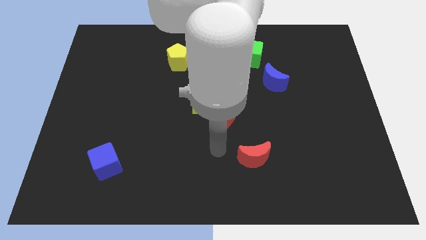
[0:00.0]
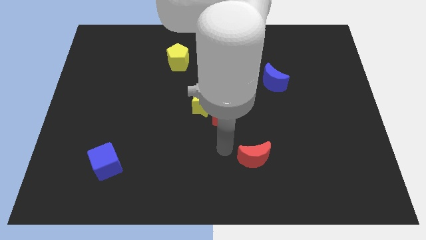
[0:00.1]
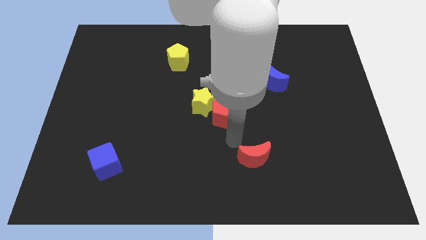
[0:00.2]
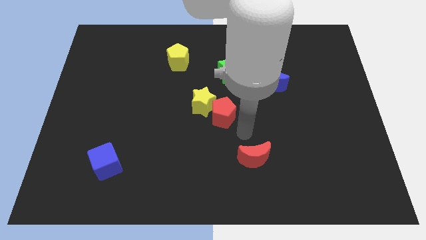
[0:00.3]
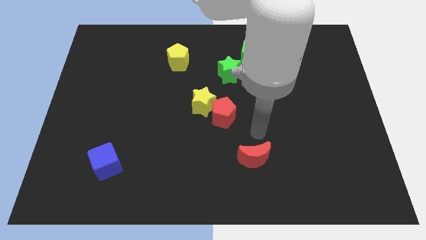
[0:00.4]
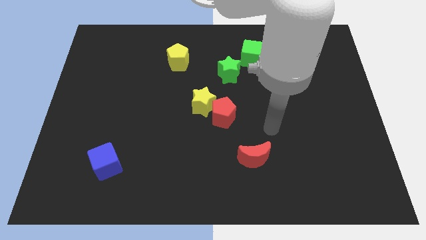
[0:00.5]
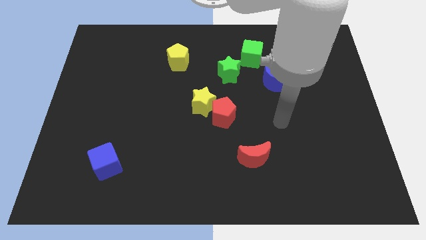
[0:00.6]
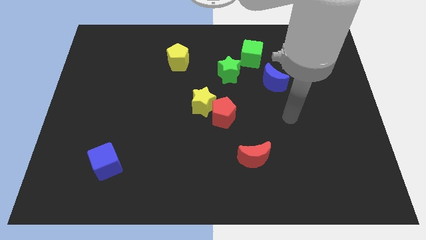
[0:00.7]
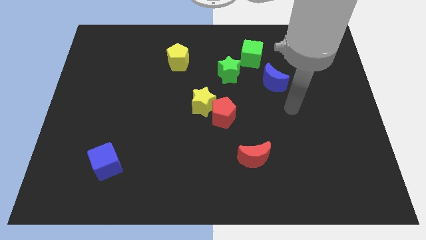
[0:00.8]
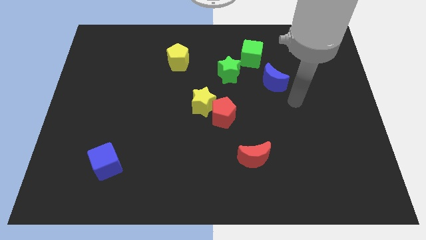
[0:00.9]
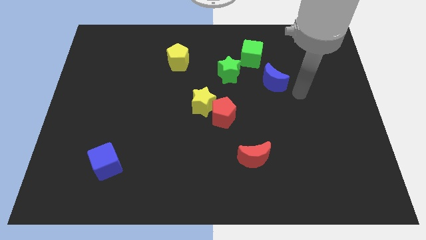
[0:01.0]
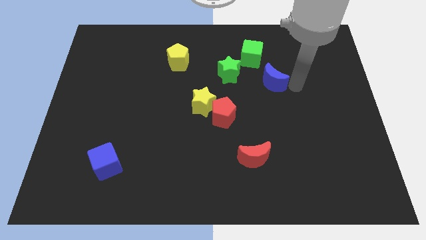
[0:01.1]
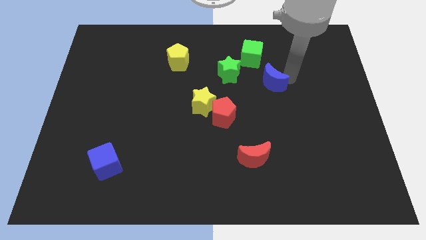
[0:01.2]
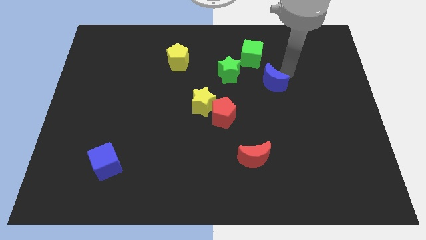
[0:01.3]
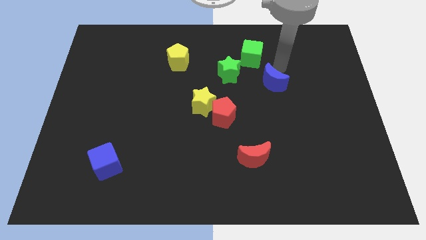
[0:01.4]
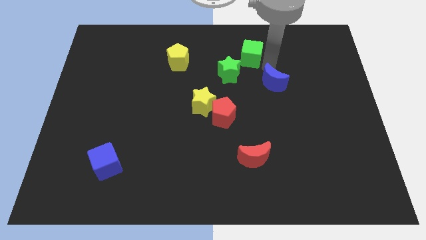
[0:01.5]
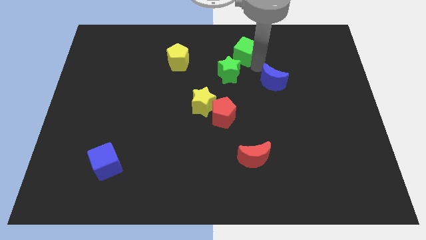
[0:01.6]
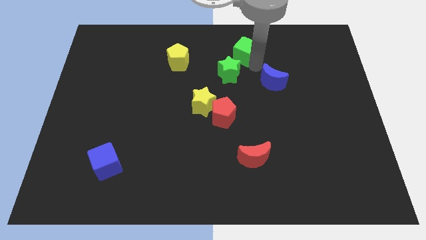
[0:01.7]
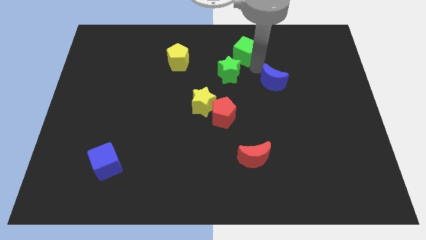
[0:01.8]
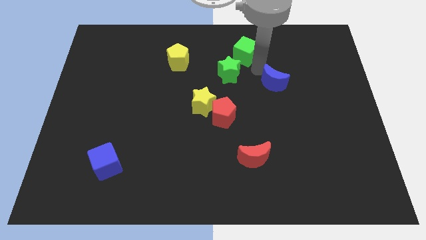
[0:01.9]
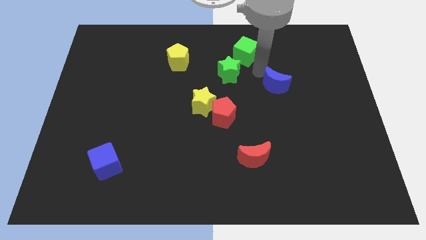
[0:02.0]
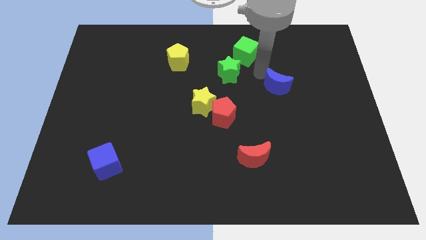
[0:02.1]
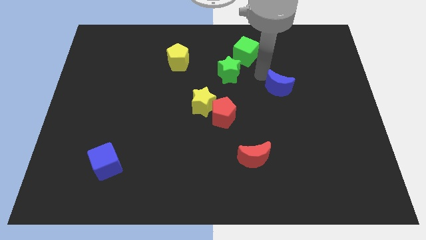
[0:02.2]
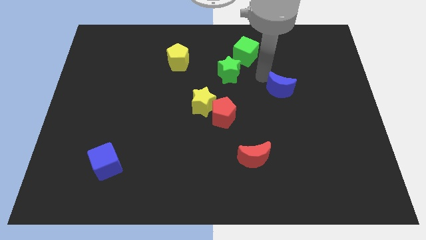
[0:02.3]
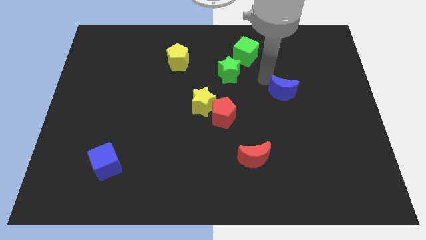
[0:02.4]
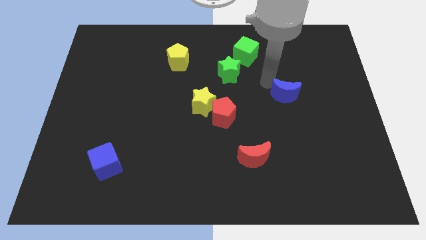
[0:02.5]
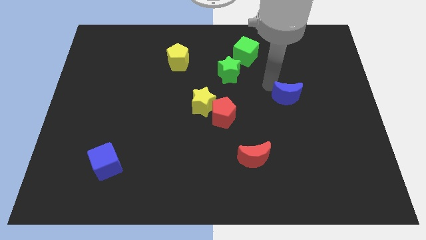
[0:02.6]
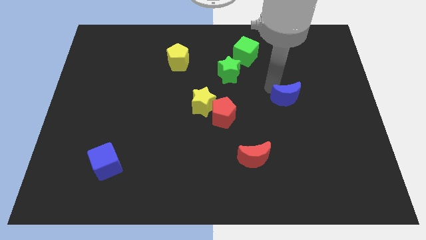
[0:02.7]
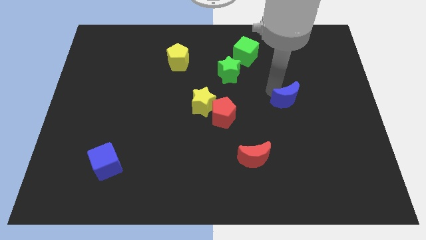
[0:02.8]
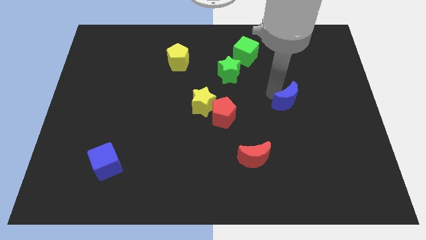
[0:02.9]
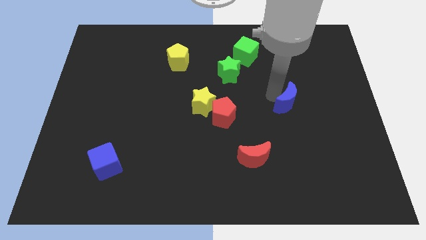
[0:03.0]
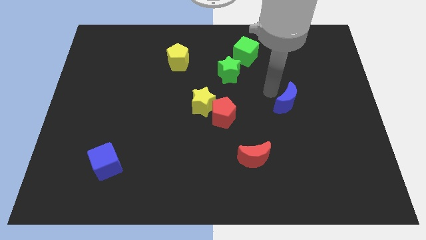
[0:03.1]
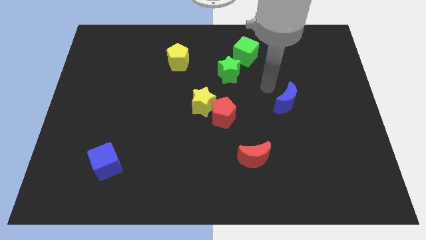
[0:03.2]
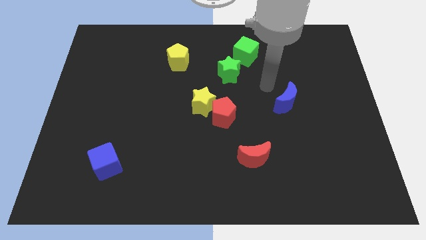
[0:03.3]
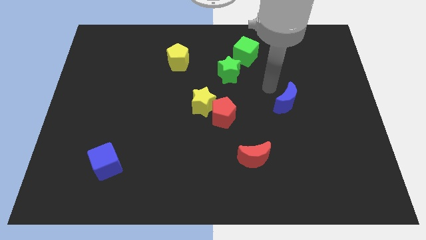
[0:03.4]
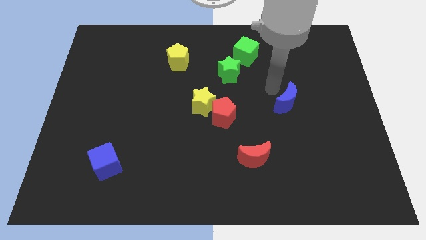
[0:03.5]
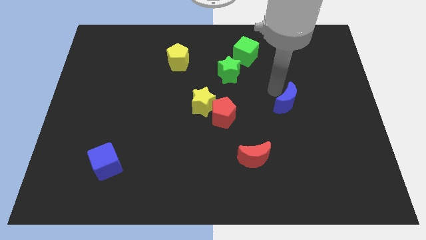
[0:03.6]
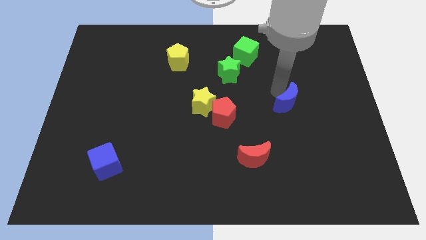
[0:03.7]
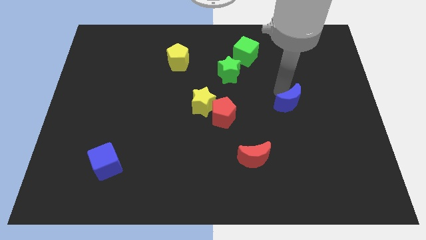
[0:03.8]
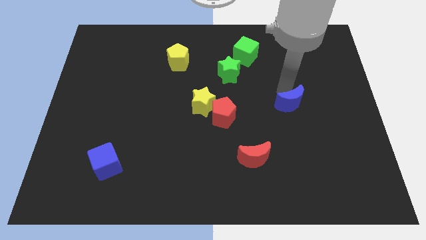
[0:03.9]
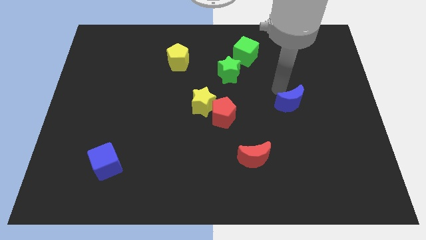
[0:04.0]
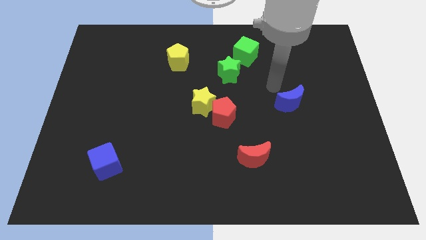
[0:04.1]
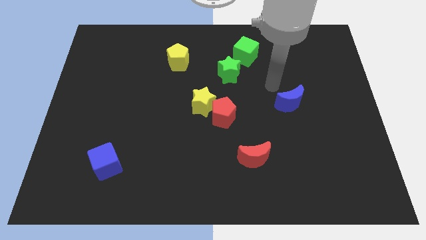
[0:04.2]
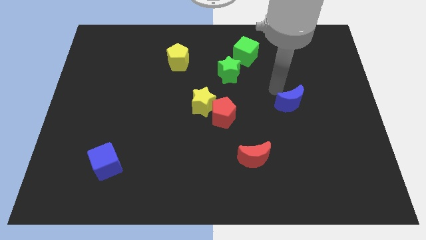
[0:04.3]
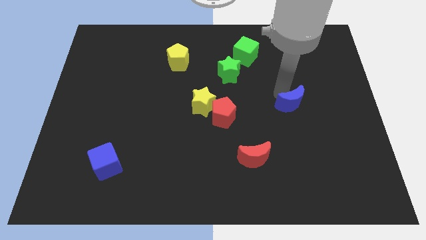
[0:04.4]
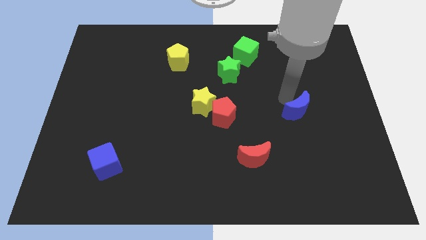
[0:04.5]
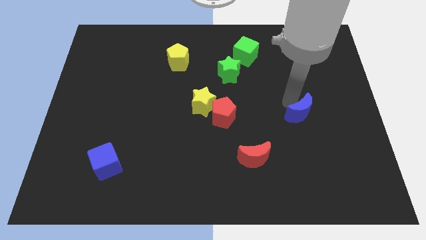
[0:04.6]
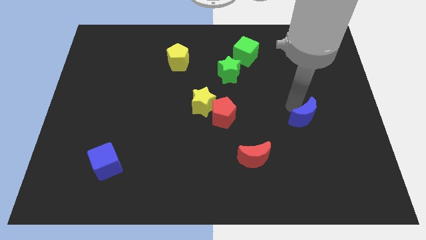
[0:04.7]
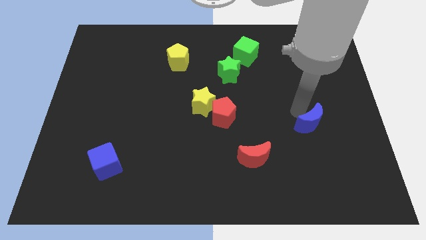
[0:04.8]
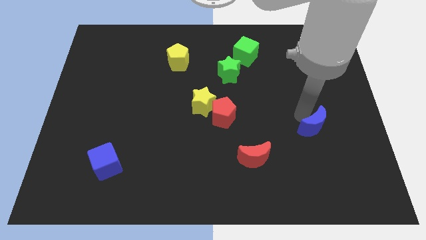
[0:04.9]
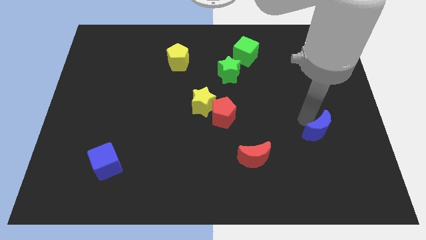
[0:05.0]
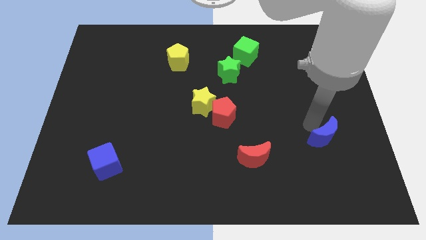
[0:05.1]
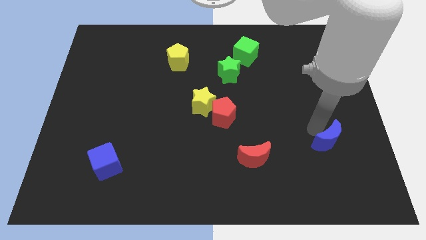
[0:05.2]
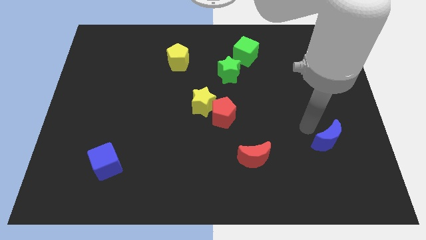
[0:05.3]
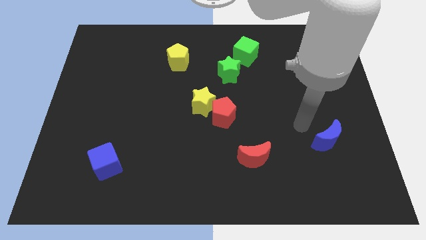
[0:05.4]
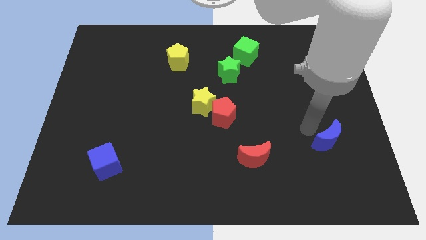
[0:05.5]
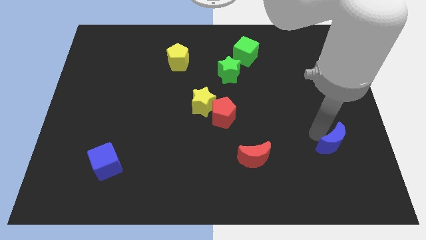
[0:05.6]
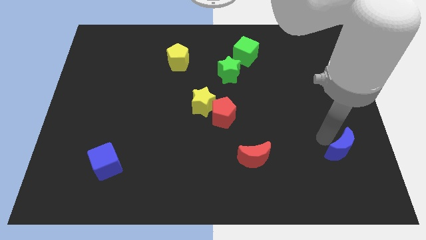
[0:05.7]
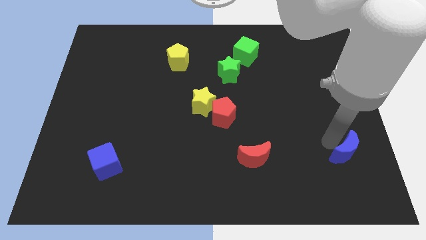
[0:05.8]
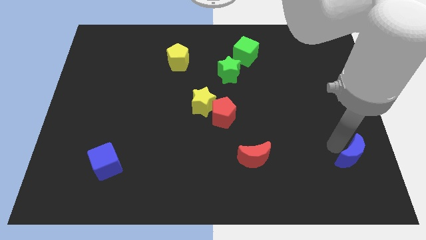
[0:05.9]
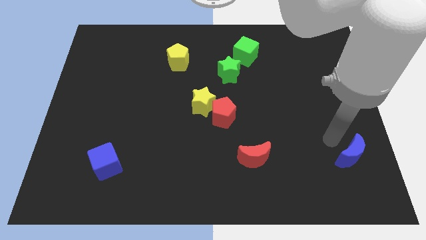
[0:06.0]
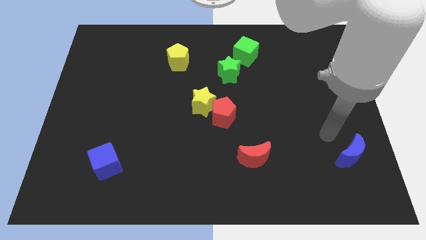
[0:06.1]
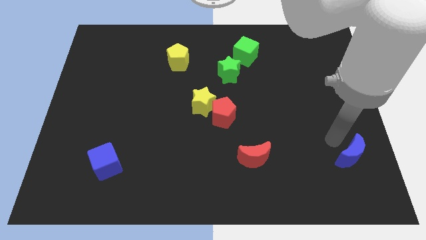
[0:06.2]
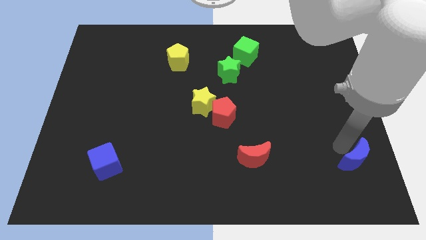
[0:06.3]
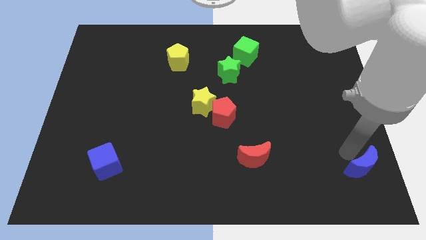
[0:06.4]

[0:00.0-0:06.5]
slide the blue moon to the bottom right

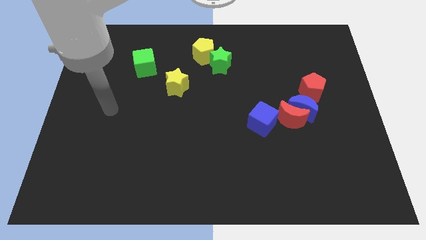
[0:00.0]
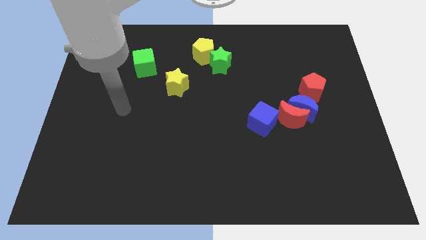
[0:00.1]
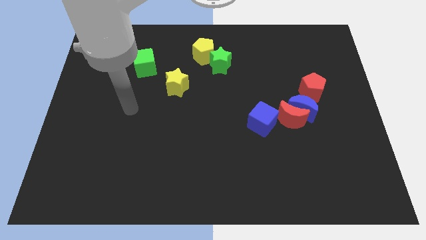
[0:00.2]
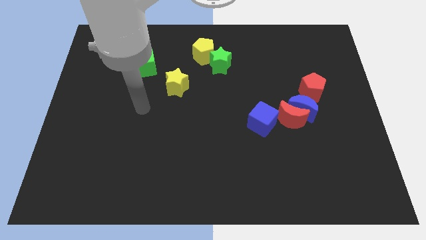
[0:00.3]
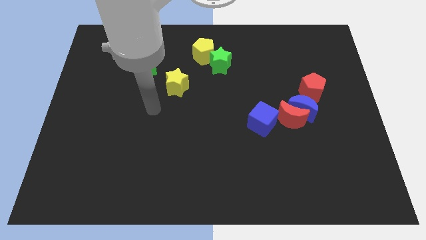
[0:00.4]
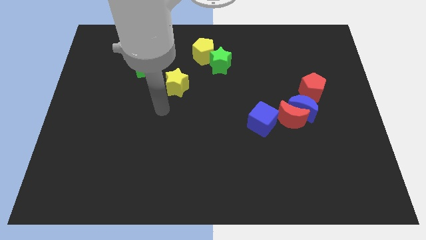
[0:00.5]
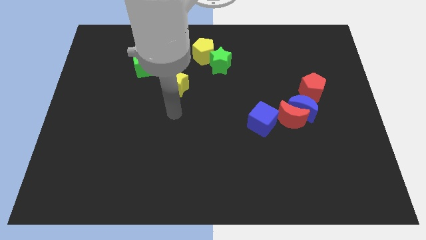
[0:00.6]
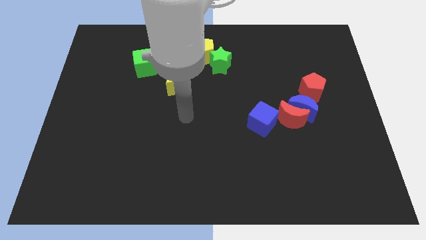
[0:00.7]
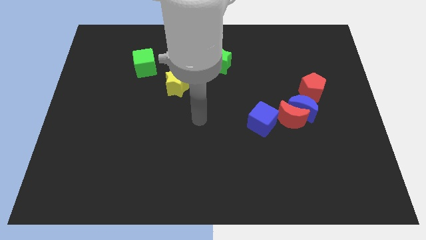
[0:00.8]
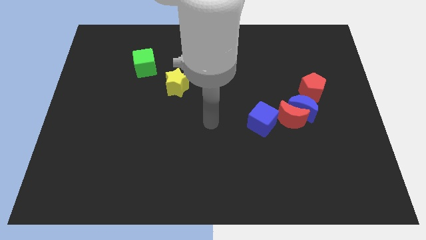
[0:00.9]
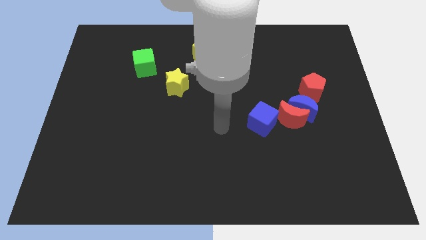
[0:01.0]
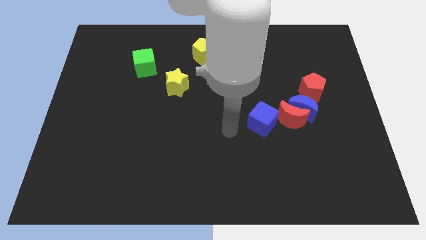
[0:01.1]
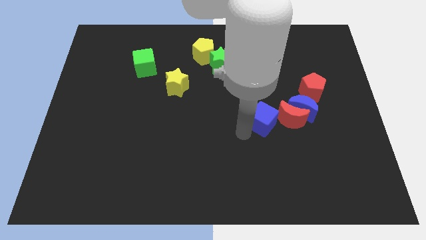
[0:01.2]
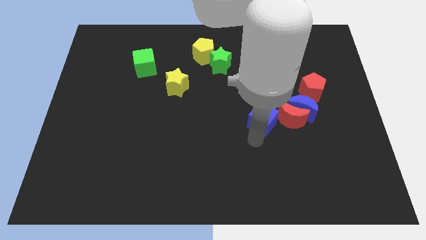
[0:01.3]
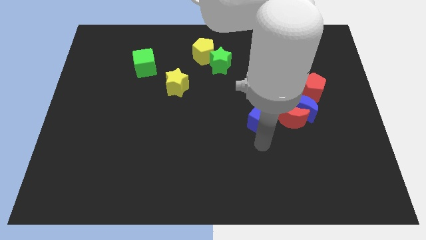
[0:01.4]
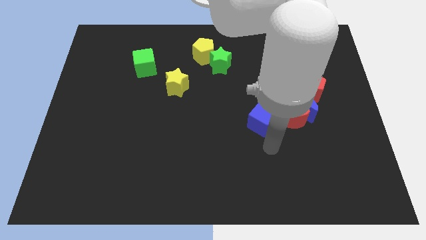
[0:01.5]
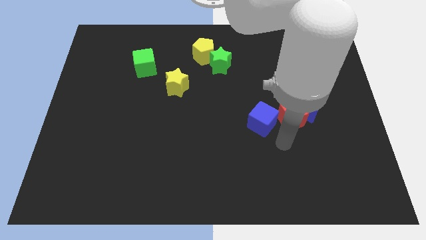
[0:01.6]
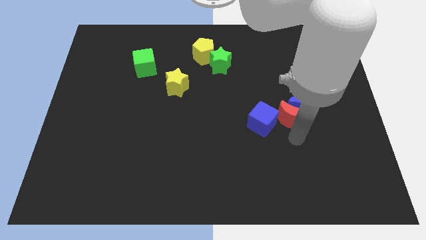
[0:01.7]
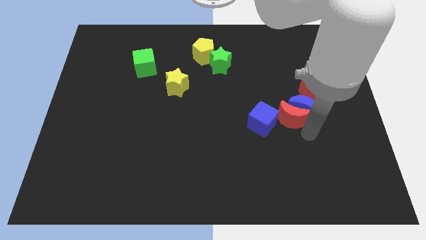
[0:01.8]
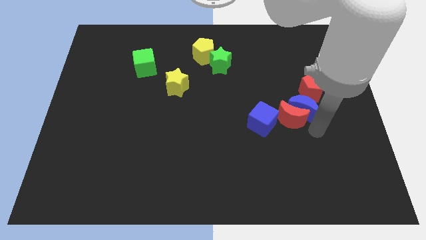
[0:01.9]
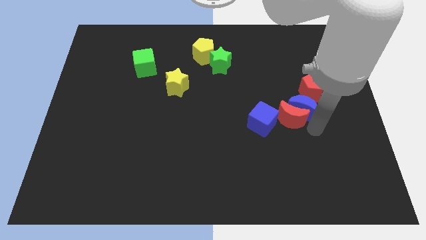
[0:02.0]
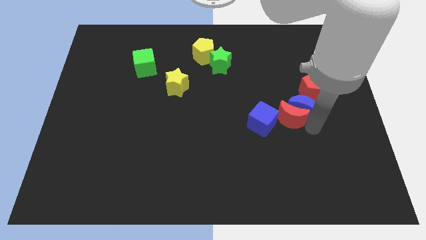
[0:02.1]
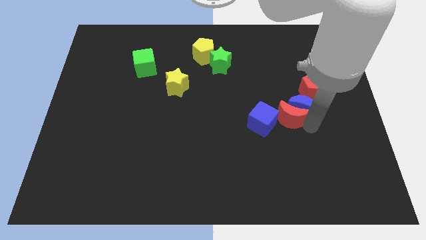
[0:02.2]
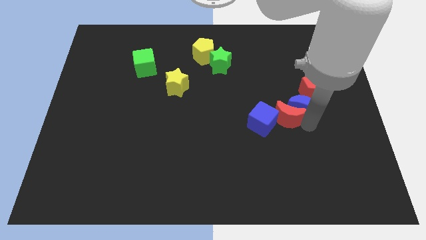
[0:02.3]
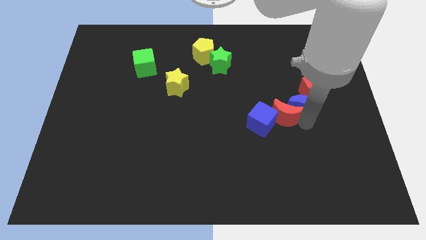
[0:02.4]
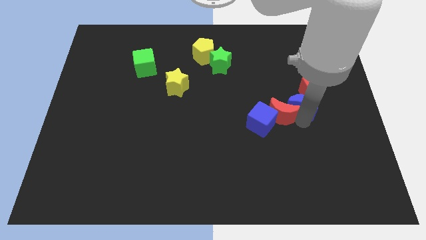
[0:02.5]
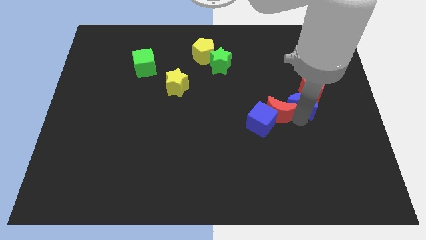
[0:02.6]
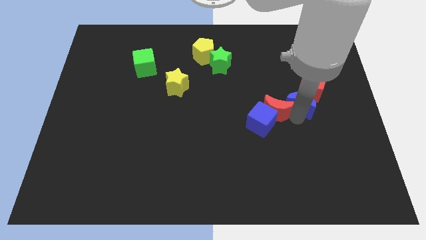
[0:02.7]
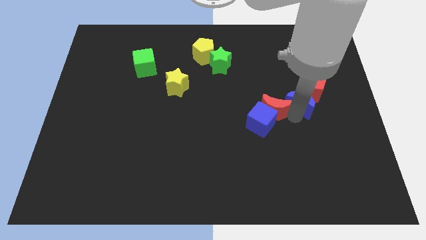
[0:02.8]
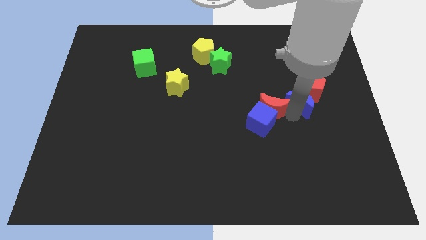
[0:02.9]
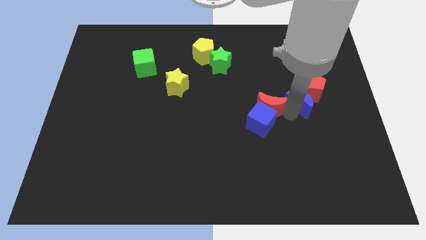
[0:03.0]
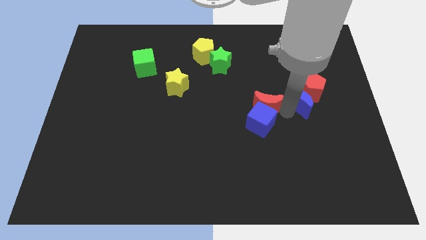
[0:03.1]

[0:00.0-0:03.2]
move the red moon to the center of the board
